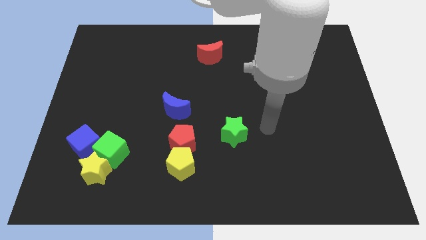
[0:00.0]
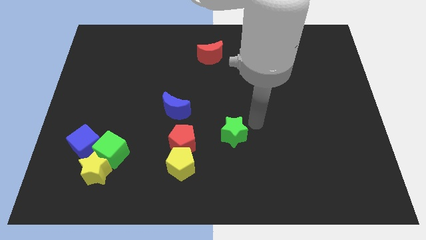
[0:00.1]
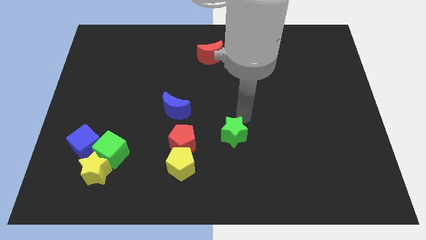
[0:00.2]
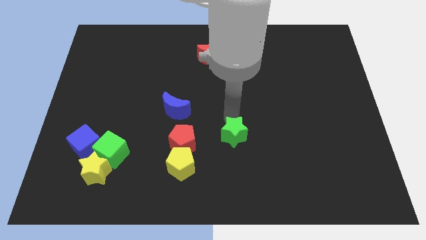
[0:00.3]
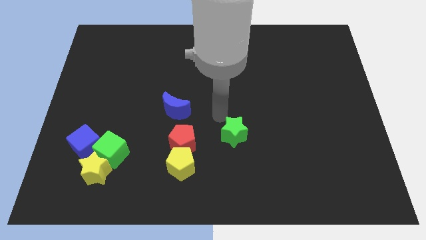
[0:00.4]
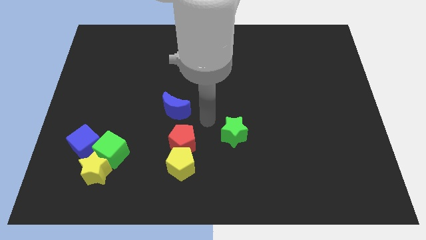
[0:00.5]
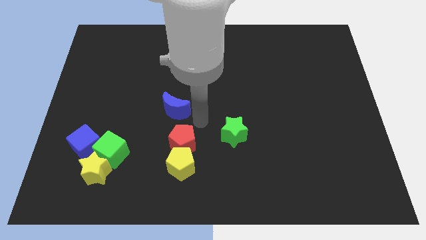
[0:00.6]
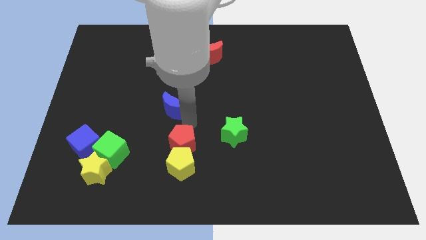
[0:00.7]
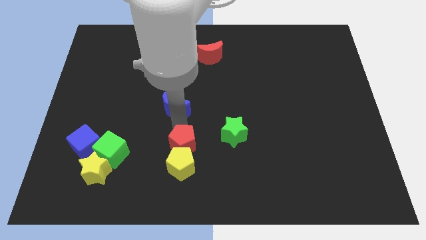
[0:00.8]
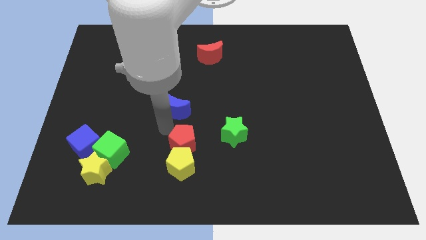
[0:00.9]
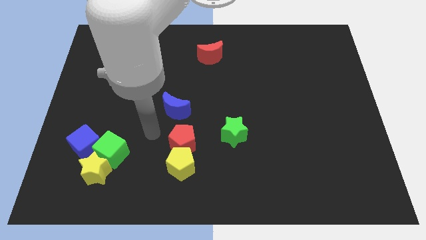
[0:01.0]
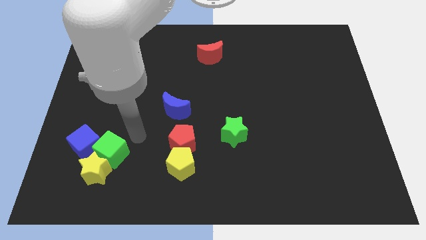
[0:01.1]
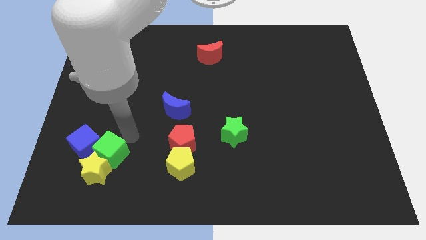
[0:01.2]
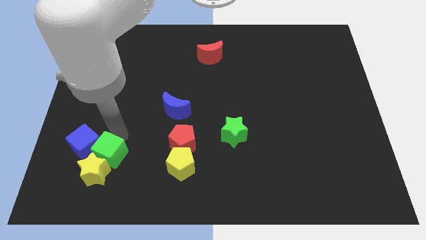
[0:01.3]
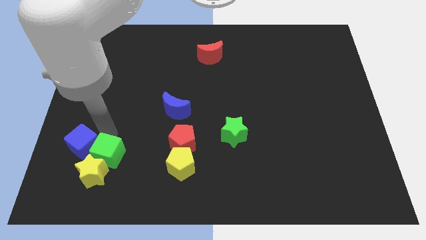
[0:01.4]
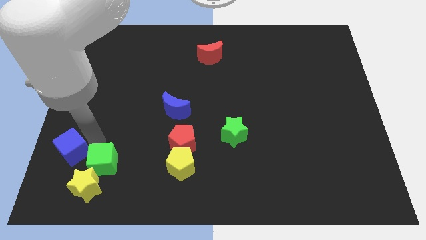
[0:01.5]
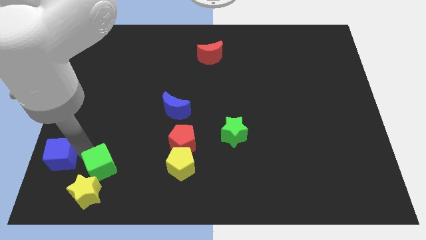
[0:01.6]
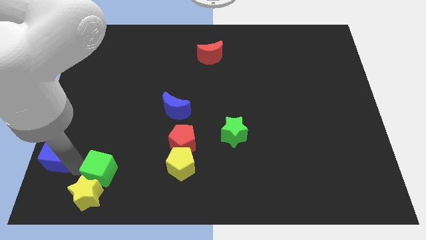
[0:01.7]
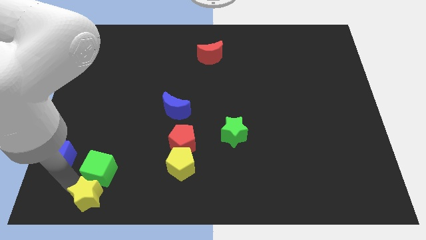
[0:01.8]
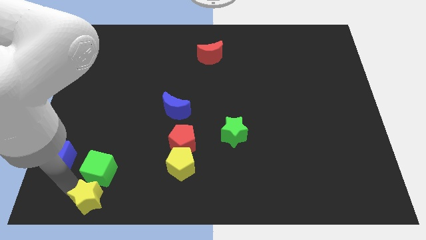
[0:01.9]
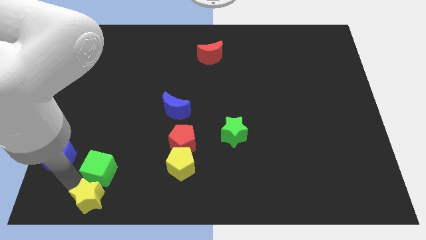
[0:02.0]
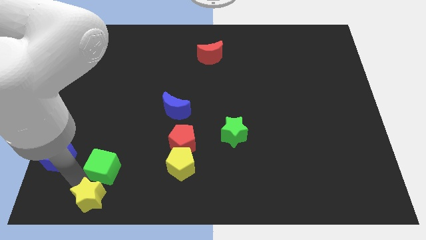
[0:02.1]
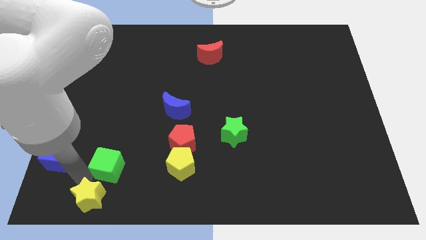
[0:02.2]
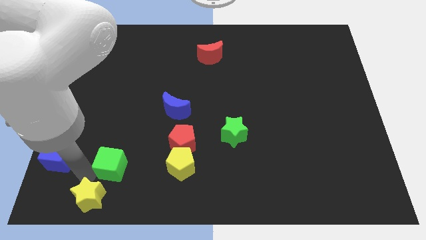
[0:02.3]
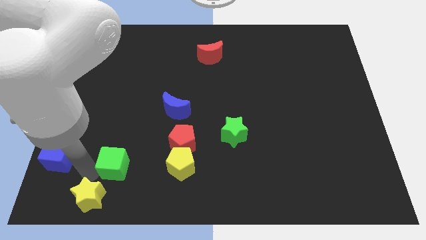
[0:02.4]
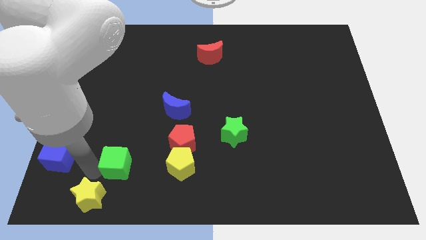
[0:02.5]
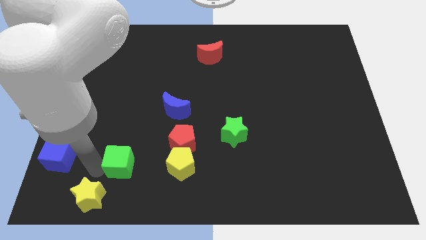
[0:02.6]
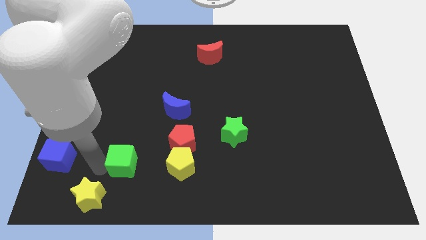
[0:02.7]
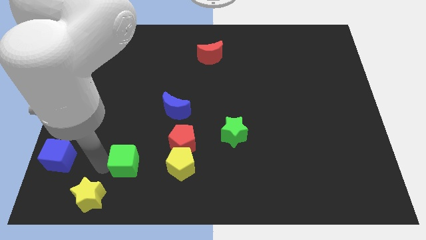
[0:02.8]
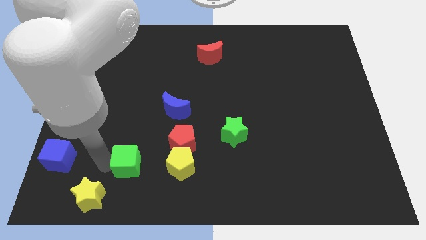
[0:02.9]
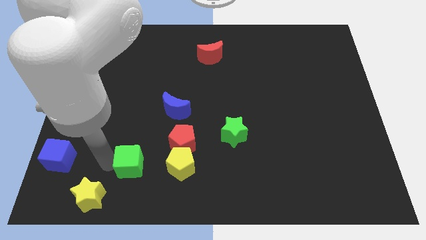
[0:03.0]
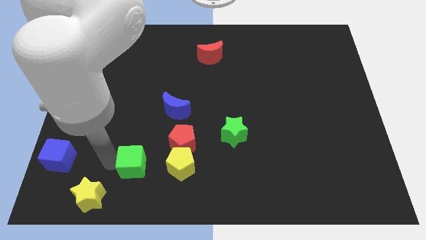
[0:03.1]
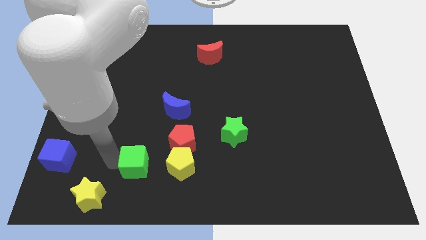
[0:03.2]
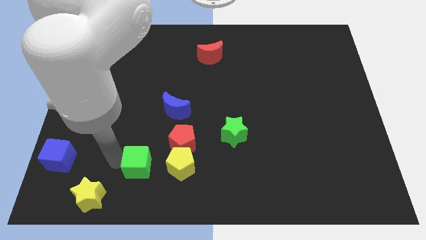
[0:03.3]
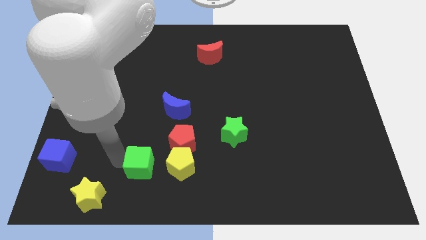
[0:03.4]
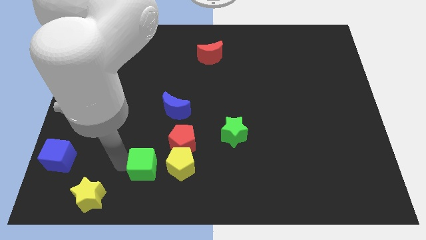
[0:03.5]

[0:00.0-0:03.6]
move the green cube to the right slightly

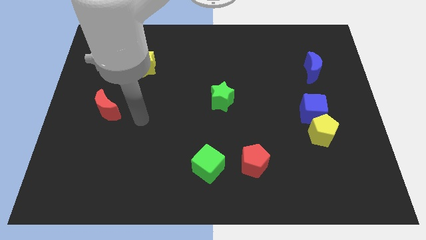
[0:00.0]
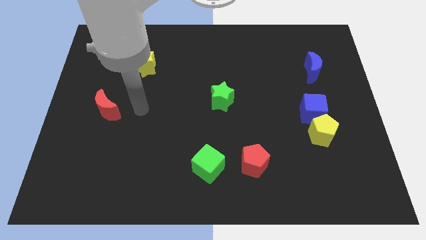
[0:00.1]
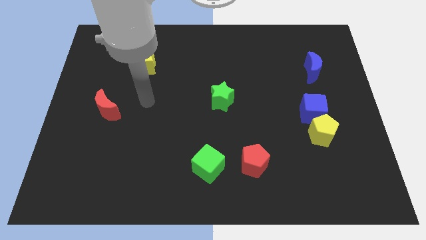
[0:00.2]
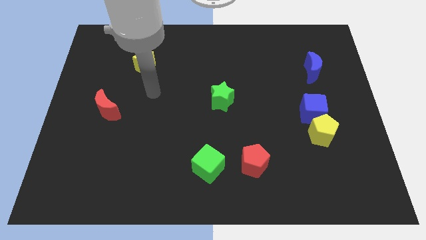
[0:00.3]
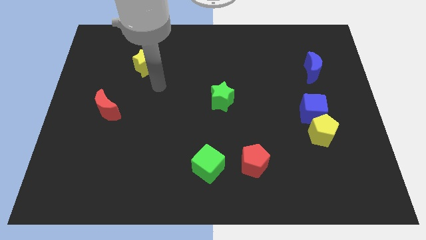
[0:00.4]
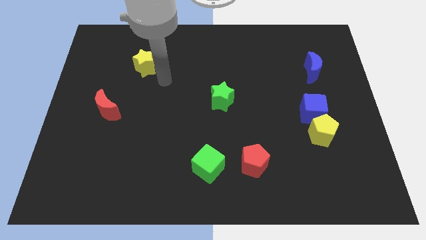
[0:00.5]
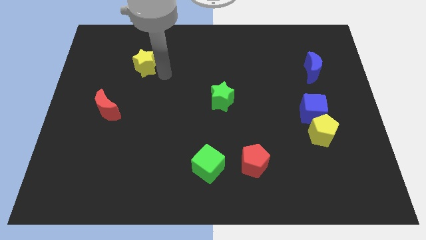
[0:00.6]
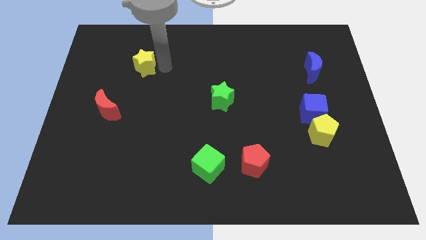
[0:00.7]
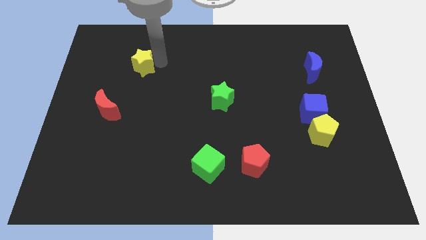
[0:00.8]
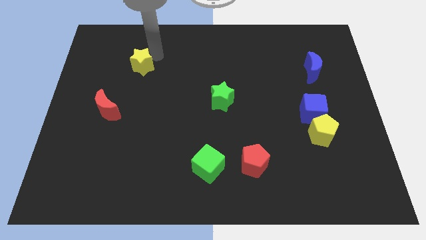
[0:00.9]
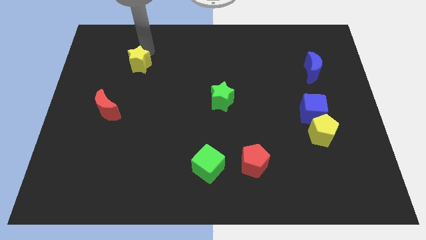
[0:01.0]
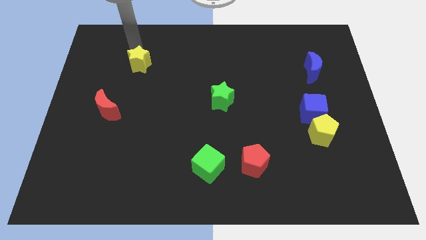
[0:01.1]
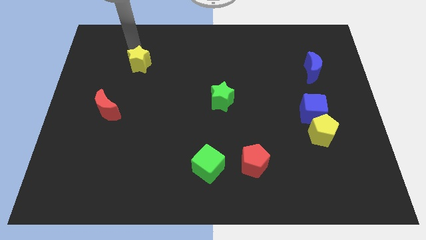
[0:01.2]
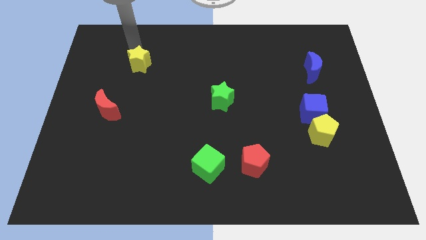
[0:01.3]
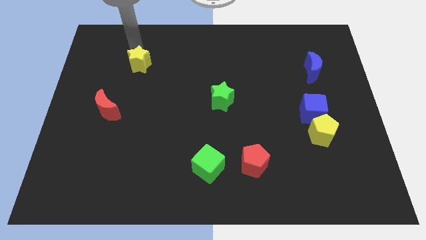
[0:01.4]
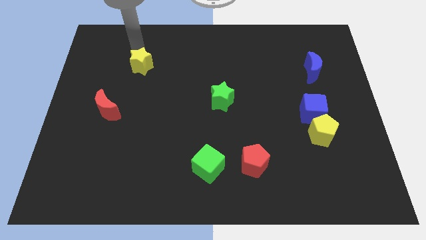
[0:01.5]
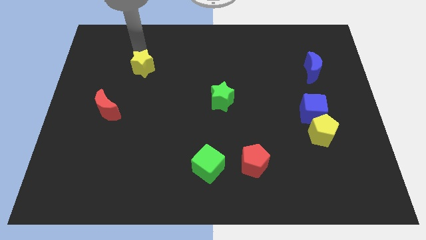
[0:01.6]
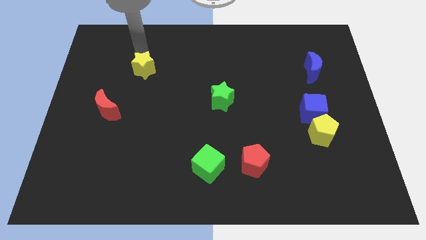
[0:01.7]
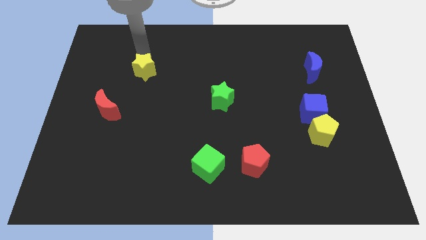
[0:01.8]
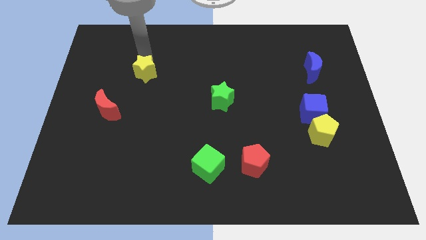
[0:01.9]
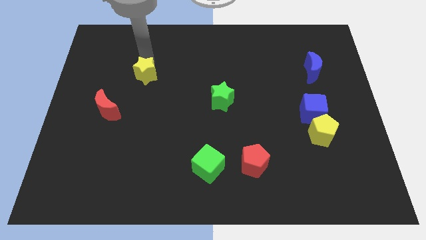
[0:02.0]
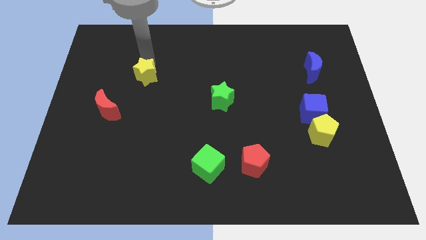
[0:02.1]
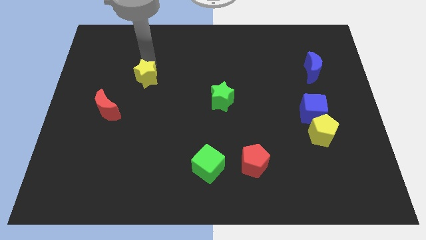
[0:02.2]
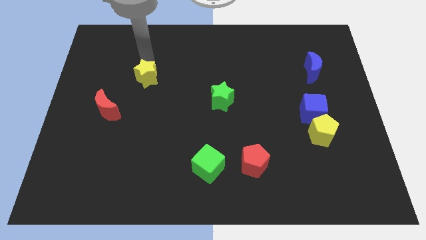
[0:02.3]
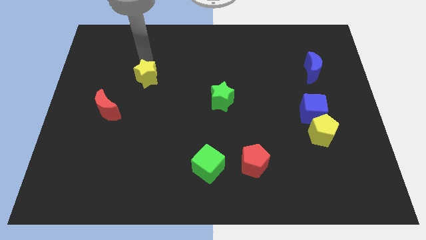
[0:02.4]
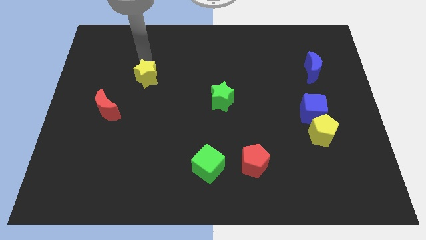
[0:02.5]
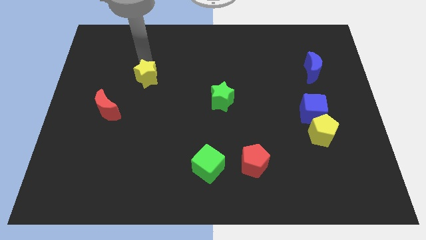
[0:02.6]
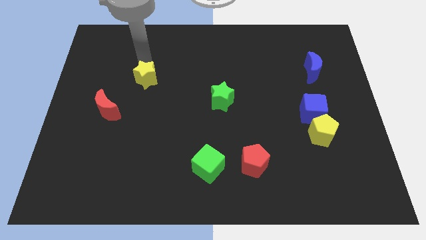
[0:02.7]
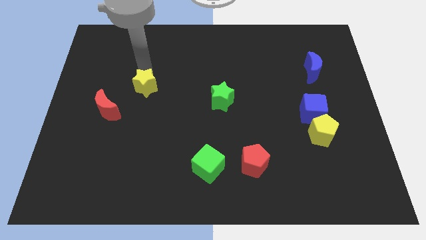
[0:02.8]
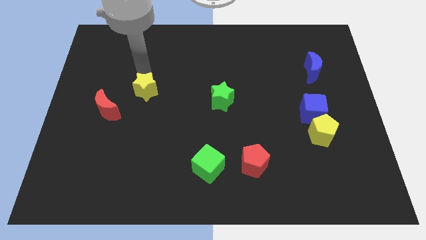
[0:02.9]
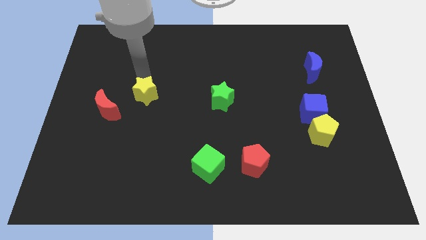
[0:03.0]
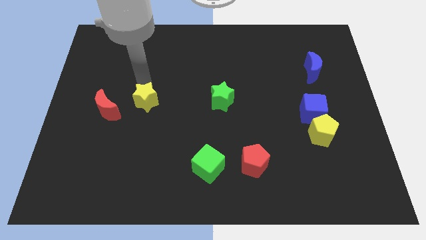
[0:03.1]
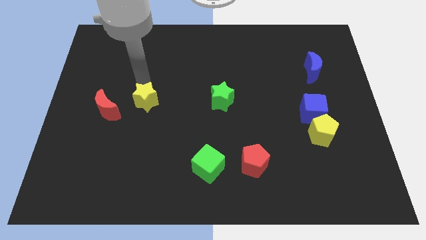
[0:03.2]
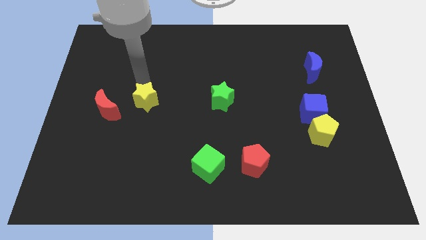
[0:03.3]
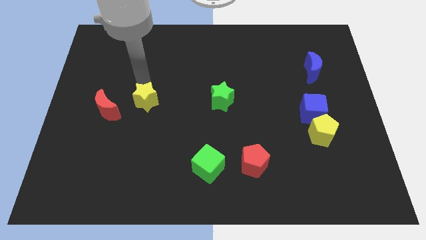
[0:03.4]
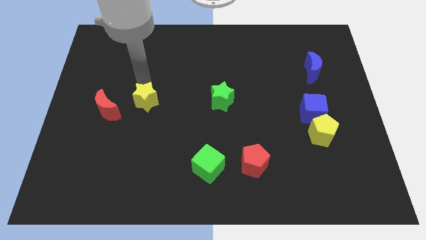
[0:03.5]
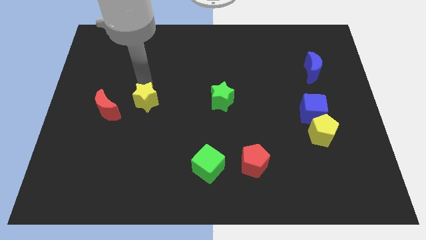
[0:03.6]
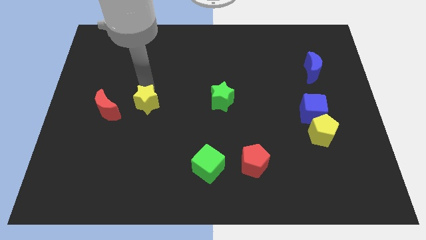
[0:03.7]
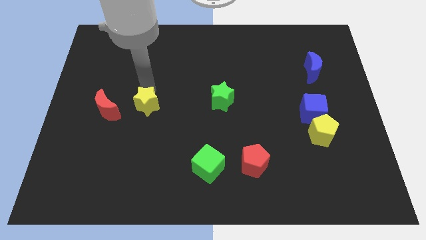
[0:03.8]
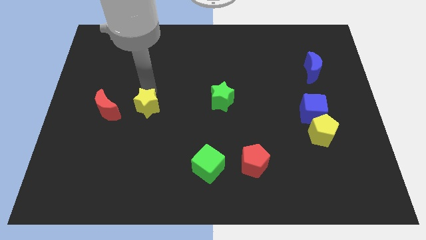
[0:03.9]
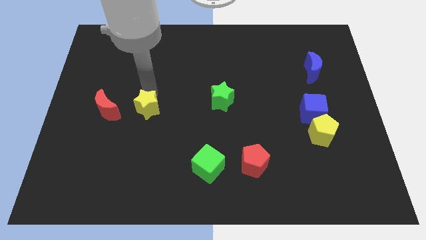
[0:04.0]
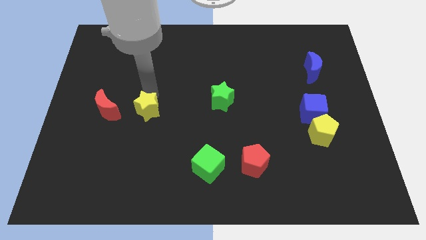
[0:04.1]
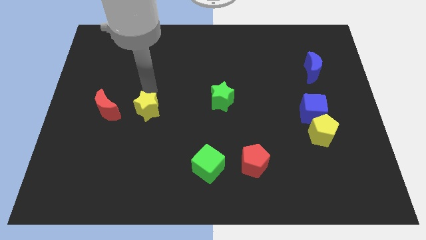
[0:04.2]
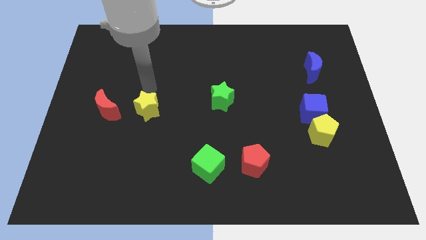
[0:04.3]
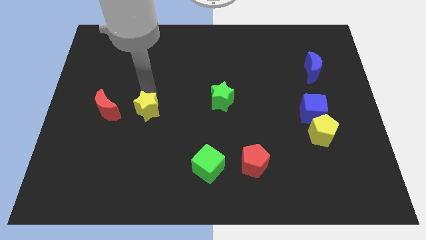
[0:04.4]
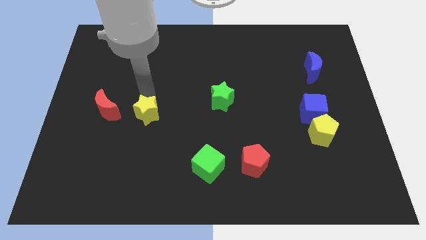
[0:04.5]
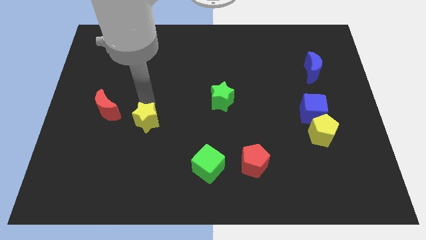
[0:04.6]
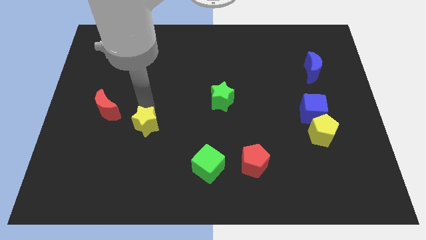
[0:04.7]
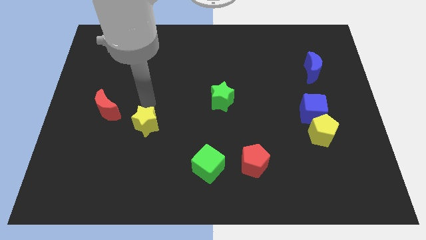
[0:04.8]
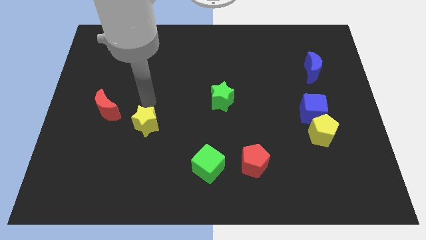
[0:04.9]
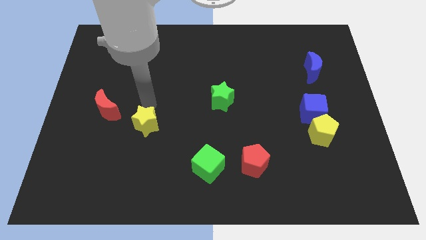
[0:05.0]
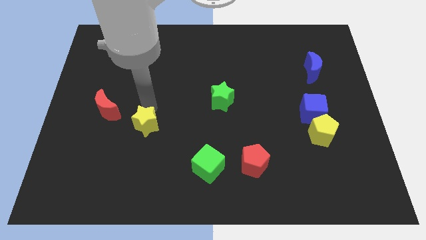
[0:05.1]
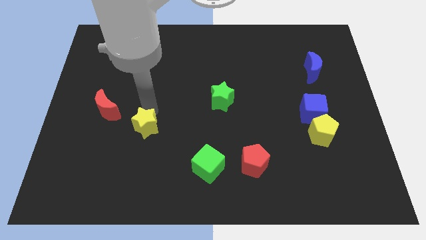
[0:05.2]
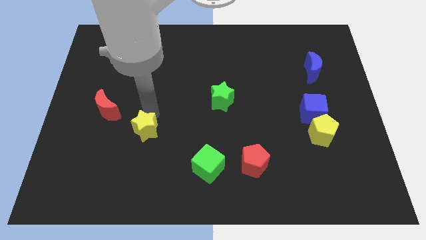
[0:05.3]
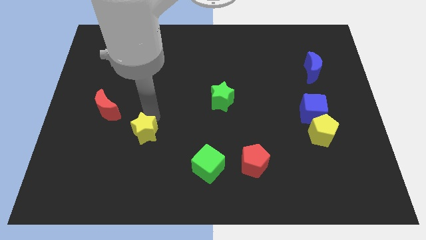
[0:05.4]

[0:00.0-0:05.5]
slide the yellow star down
